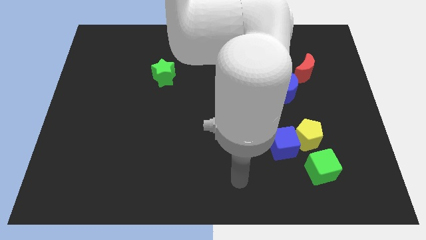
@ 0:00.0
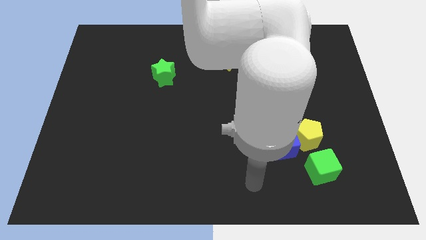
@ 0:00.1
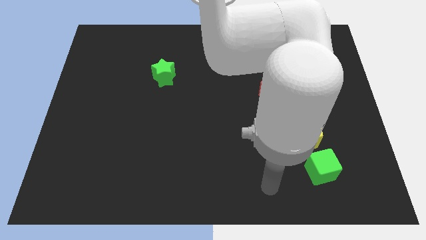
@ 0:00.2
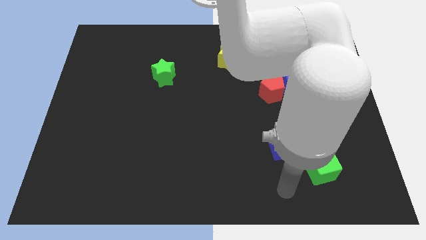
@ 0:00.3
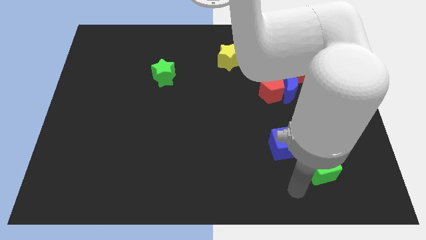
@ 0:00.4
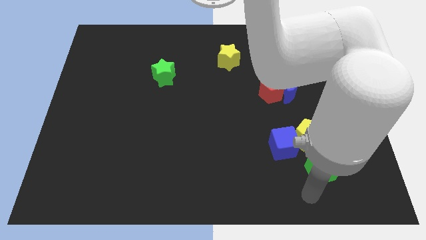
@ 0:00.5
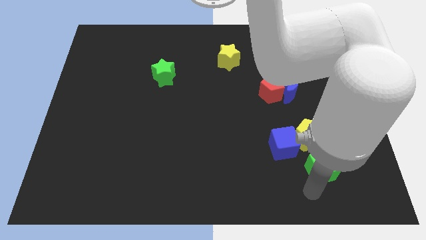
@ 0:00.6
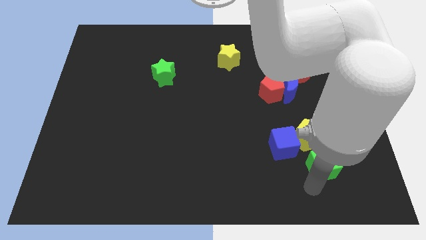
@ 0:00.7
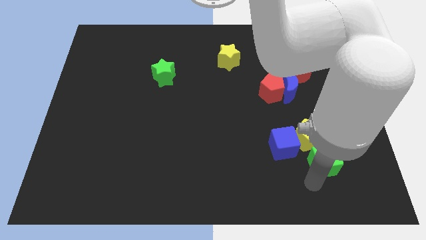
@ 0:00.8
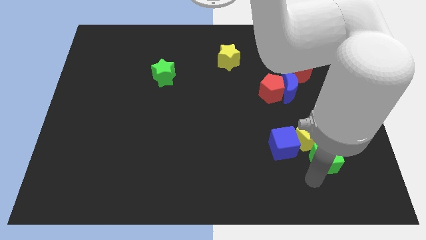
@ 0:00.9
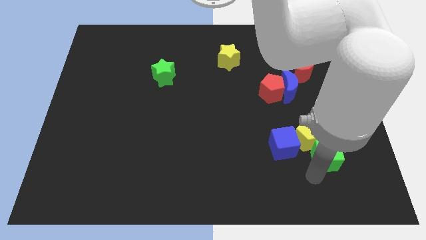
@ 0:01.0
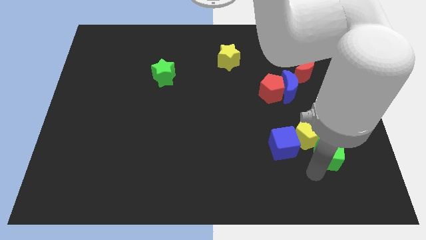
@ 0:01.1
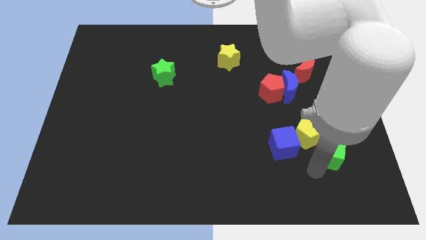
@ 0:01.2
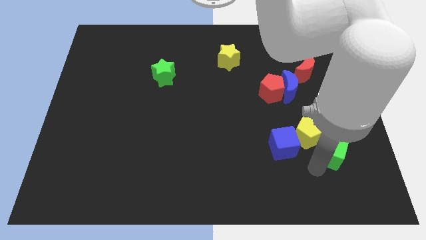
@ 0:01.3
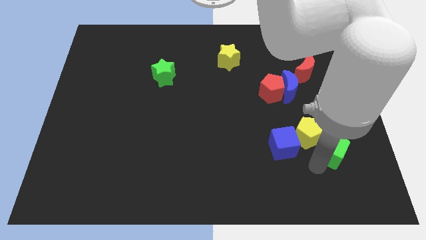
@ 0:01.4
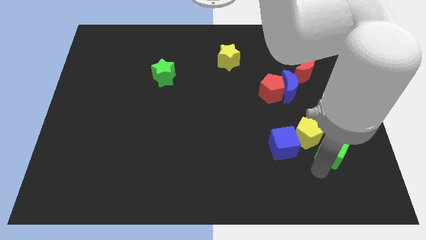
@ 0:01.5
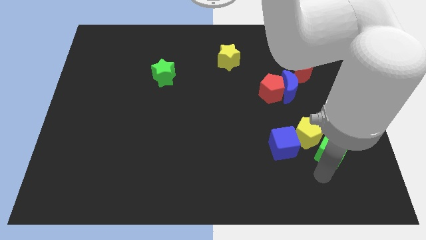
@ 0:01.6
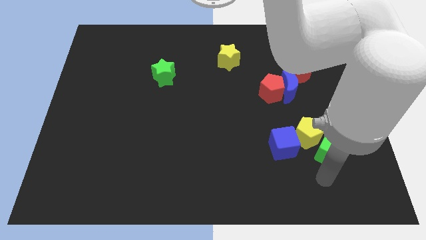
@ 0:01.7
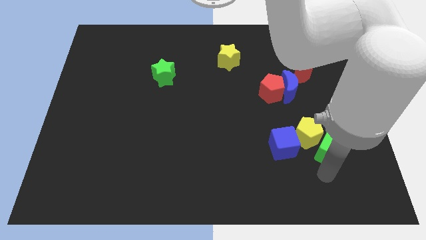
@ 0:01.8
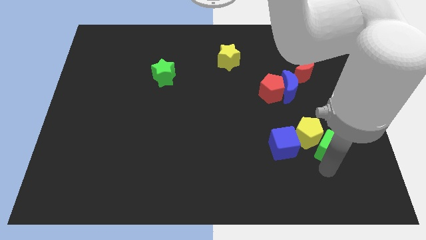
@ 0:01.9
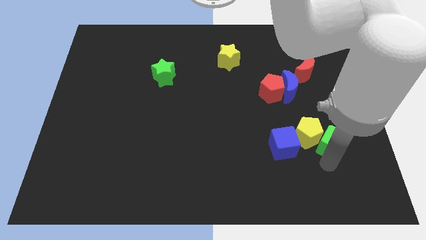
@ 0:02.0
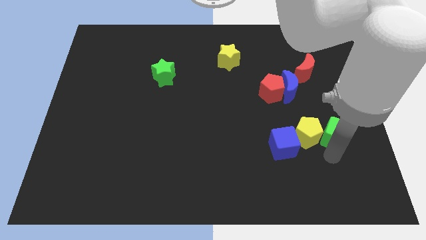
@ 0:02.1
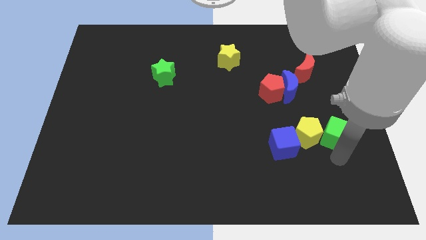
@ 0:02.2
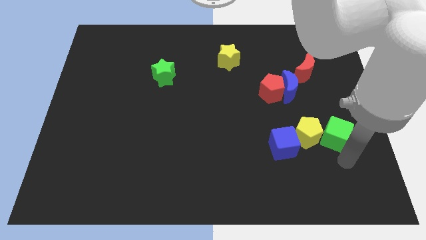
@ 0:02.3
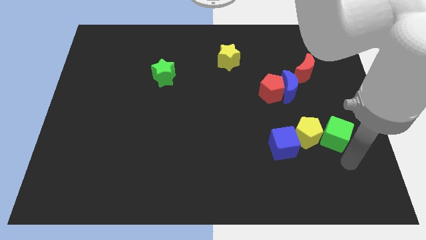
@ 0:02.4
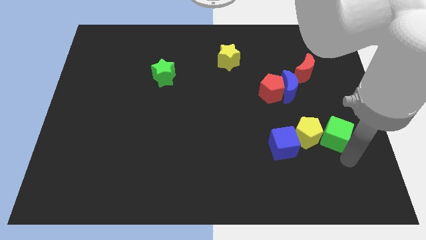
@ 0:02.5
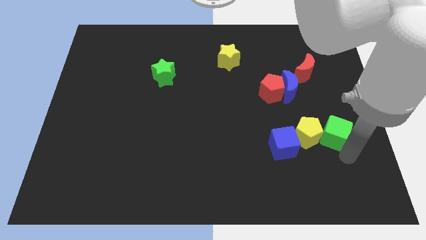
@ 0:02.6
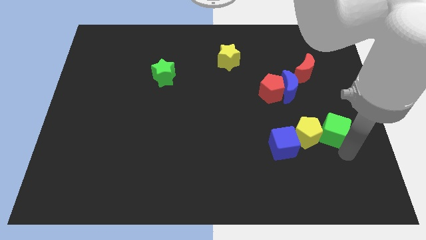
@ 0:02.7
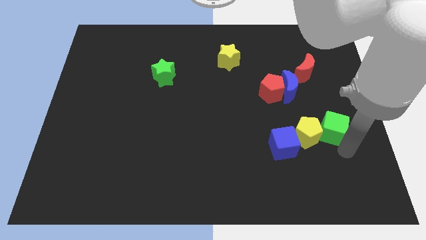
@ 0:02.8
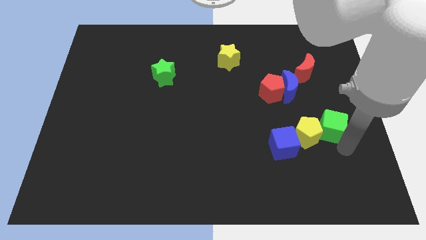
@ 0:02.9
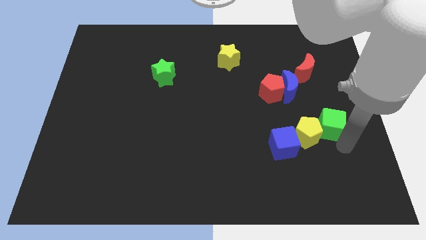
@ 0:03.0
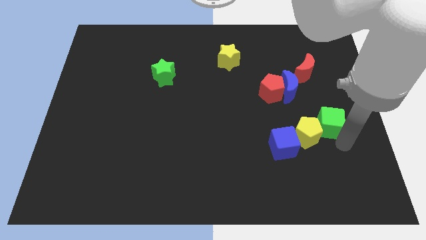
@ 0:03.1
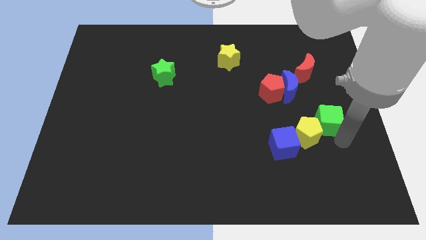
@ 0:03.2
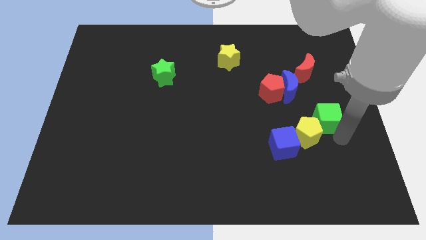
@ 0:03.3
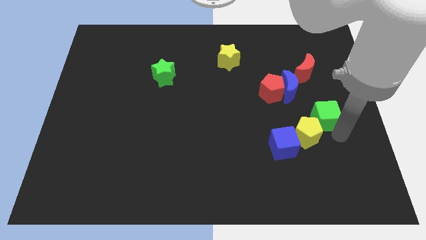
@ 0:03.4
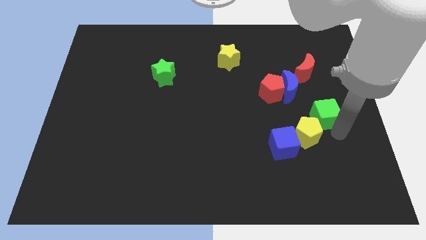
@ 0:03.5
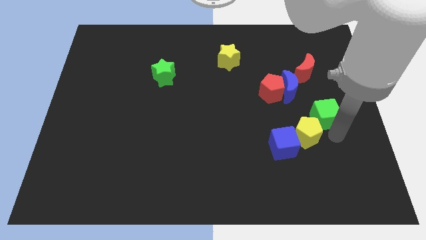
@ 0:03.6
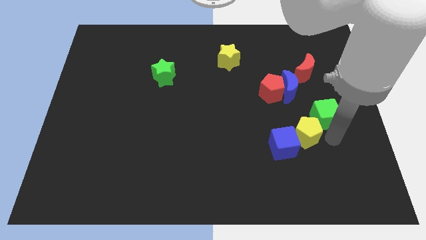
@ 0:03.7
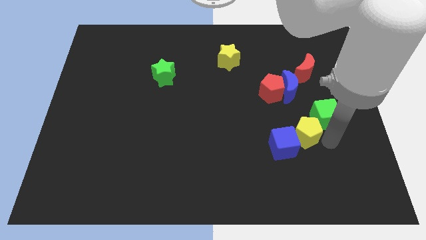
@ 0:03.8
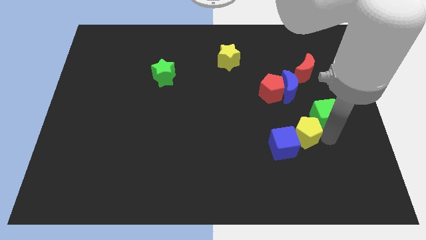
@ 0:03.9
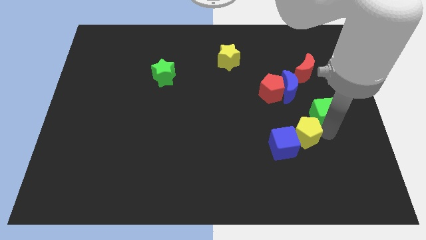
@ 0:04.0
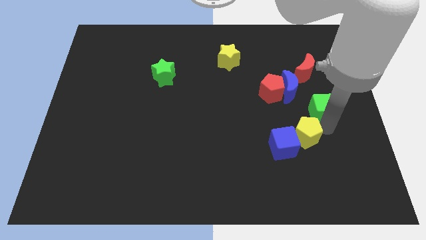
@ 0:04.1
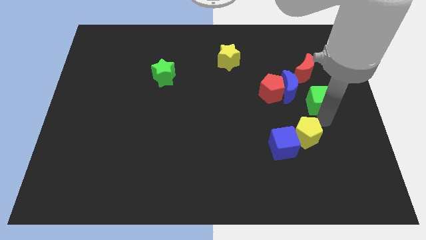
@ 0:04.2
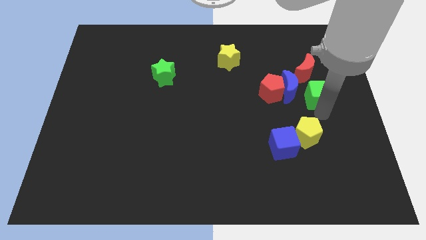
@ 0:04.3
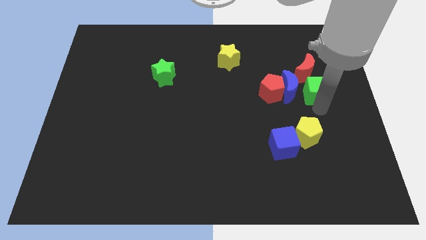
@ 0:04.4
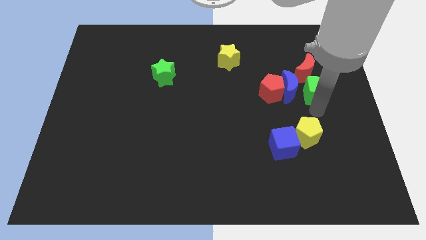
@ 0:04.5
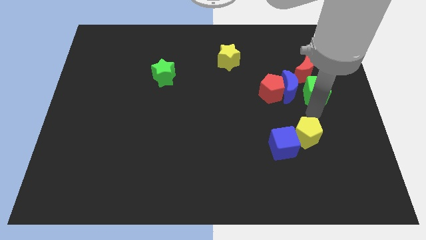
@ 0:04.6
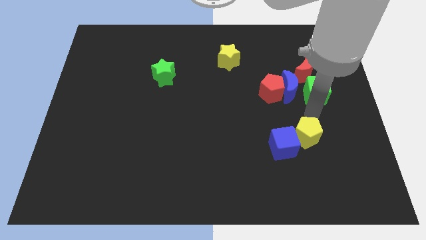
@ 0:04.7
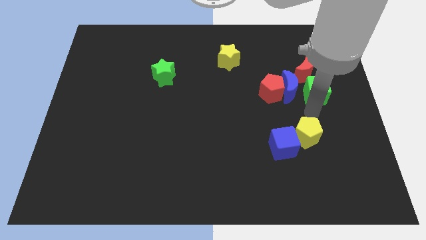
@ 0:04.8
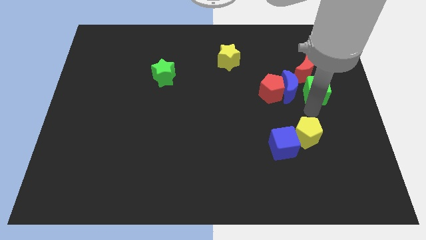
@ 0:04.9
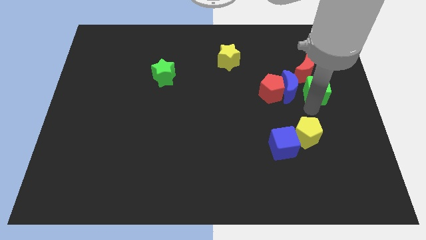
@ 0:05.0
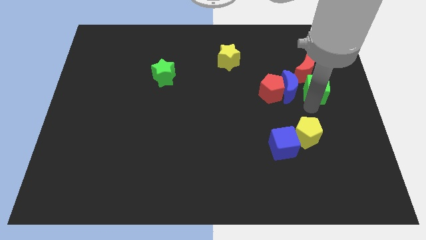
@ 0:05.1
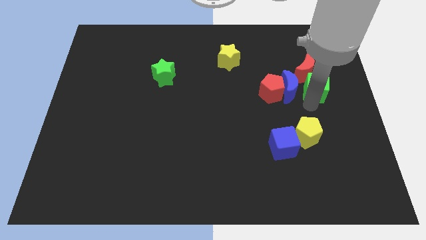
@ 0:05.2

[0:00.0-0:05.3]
put the green cube towards the red moon

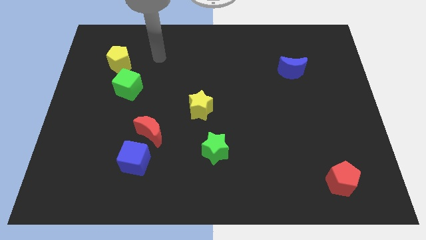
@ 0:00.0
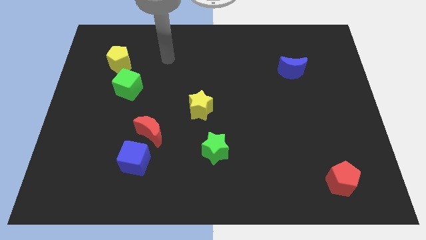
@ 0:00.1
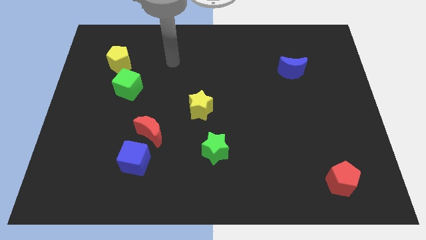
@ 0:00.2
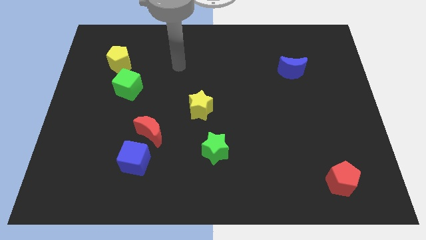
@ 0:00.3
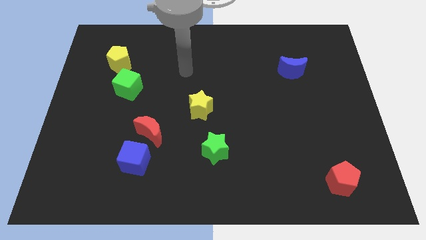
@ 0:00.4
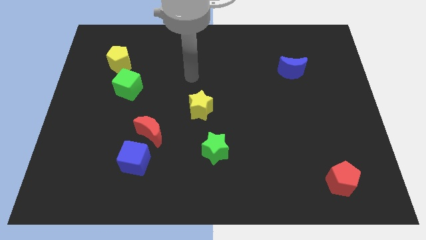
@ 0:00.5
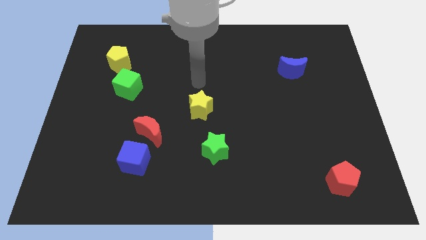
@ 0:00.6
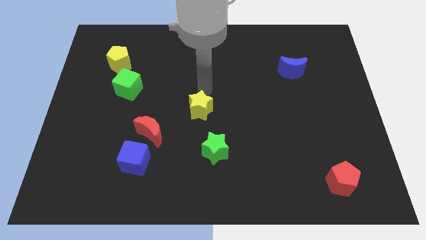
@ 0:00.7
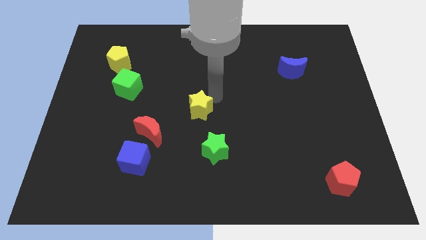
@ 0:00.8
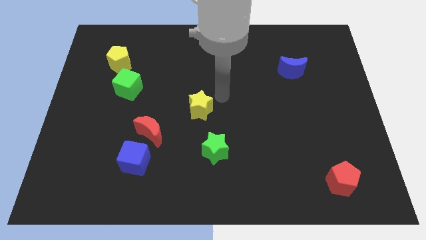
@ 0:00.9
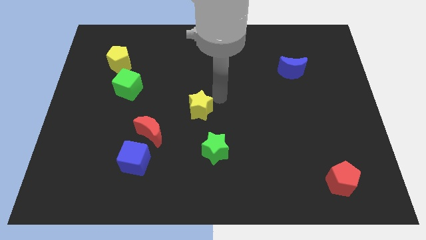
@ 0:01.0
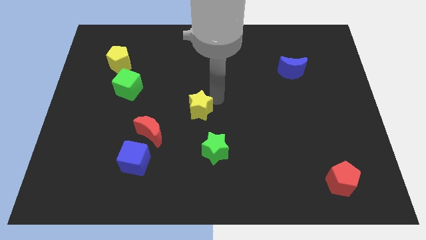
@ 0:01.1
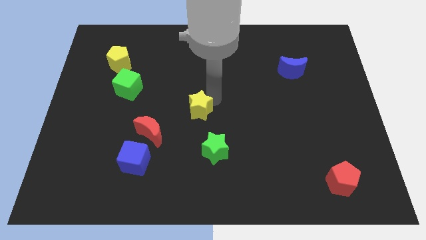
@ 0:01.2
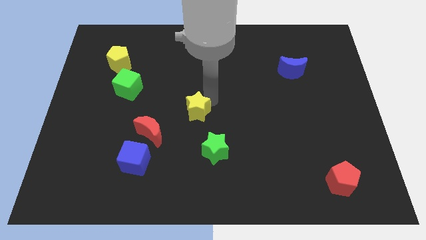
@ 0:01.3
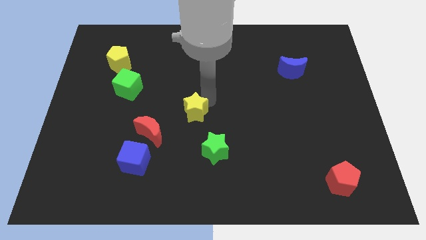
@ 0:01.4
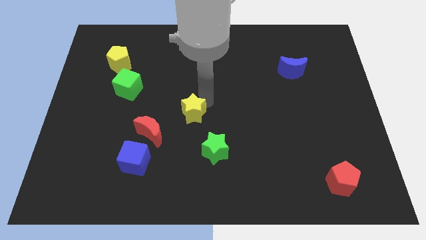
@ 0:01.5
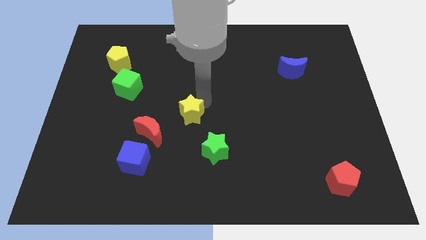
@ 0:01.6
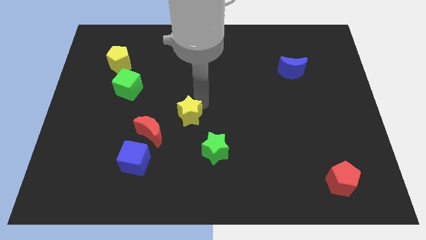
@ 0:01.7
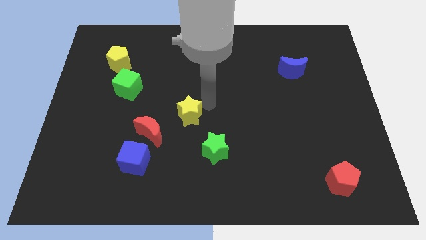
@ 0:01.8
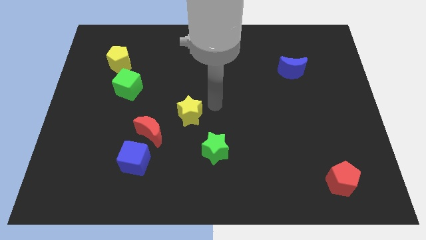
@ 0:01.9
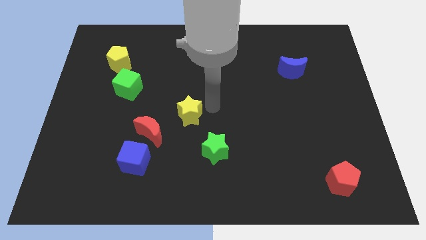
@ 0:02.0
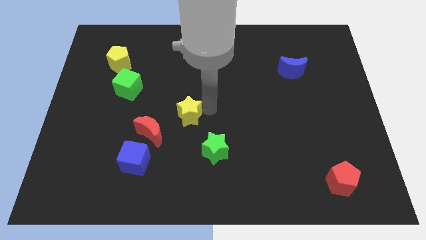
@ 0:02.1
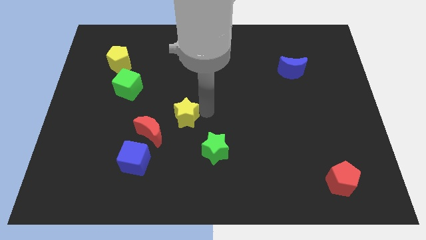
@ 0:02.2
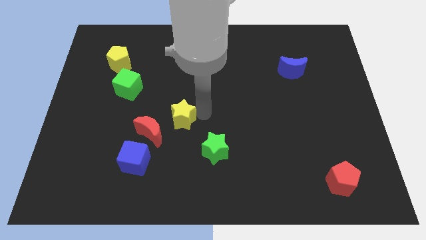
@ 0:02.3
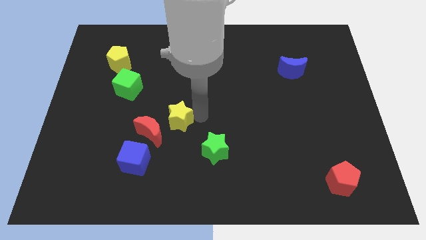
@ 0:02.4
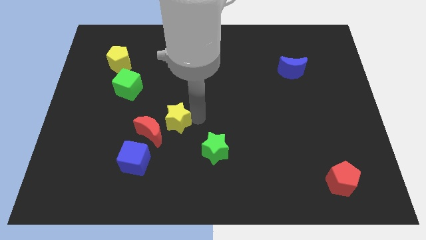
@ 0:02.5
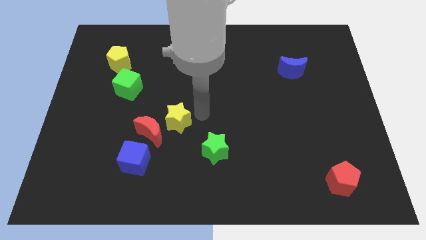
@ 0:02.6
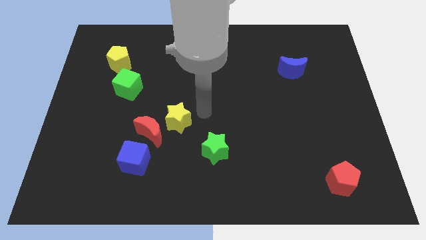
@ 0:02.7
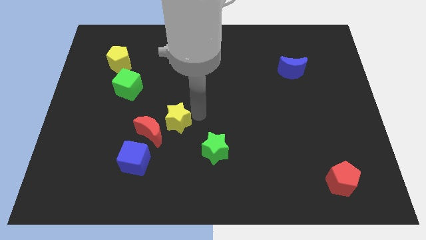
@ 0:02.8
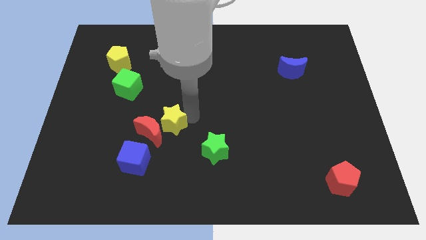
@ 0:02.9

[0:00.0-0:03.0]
move the yellow star close to the red moon
